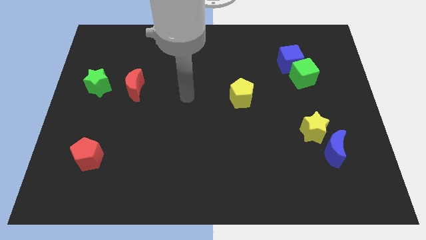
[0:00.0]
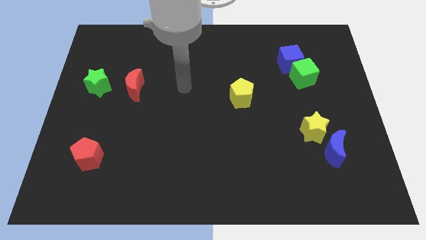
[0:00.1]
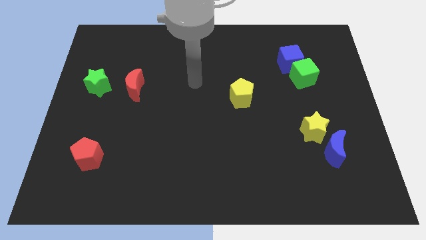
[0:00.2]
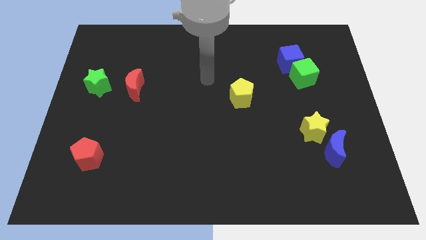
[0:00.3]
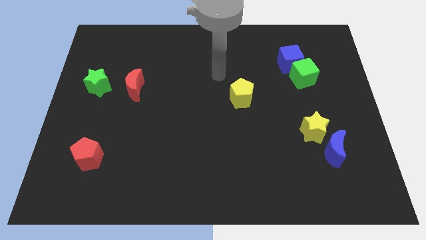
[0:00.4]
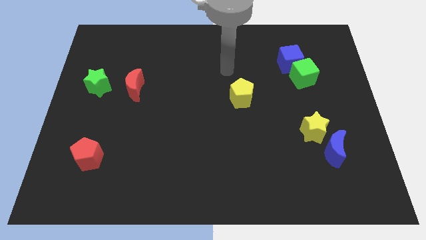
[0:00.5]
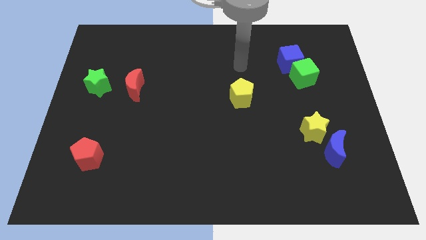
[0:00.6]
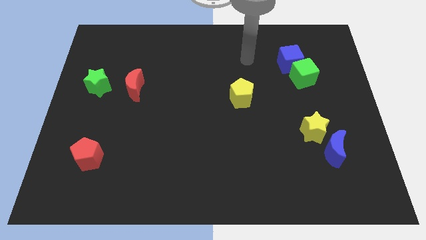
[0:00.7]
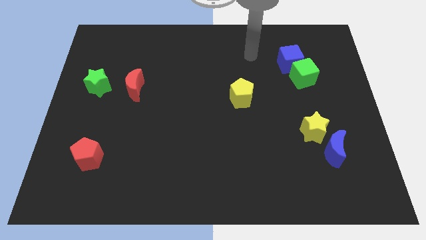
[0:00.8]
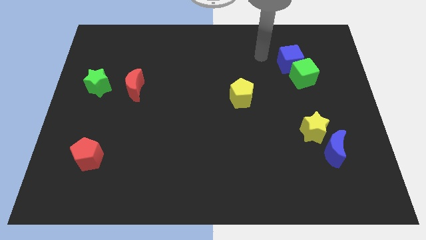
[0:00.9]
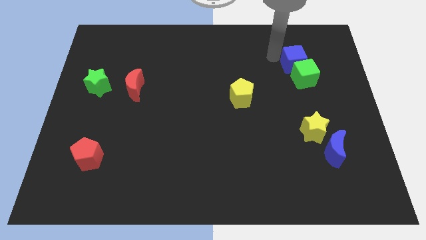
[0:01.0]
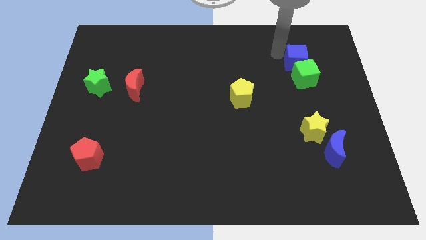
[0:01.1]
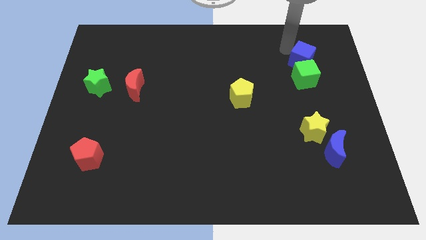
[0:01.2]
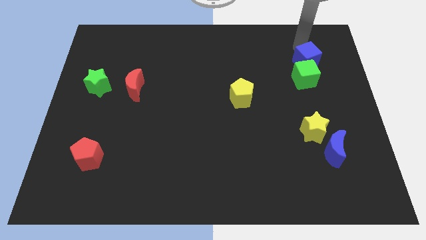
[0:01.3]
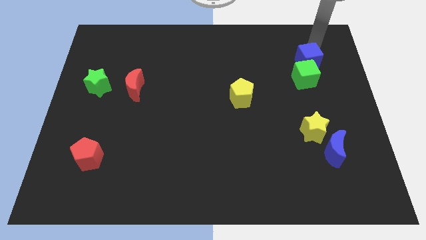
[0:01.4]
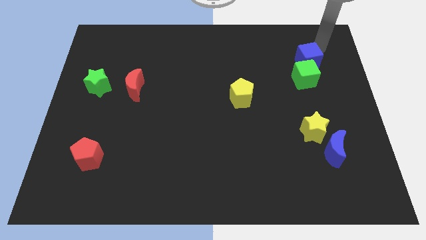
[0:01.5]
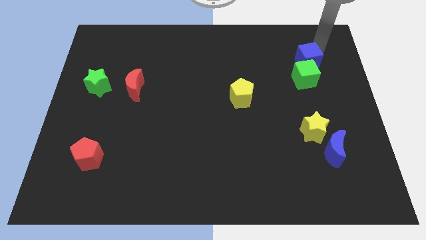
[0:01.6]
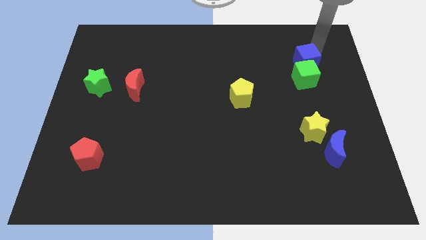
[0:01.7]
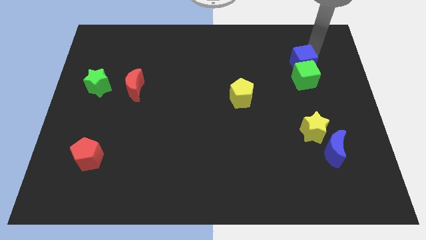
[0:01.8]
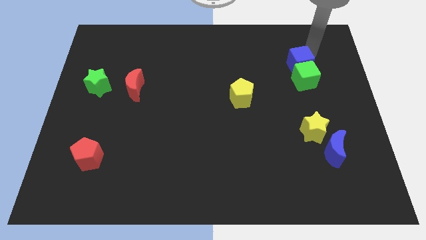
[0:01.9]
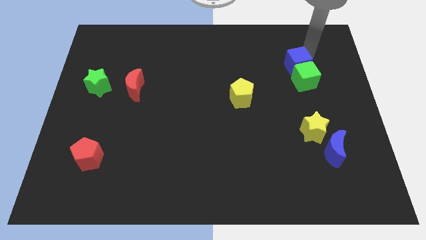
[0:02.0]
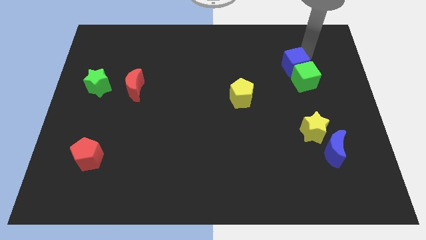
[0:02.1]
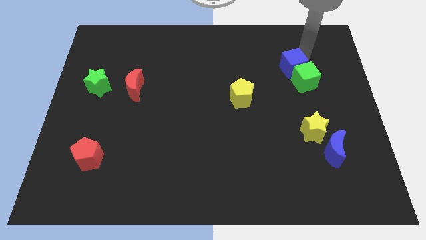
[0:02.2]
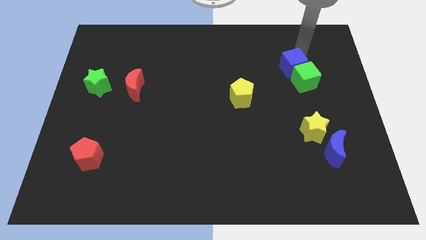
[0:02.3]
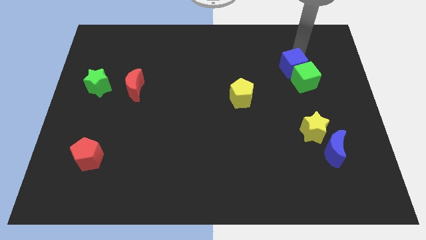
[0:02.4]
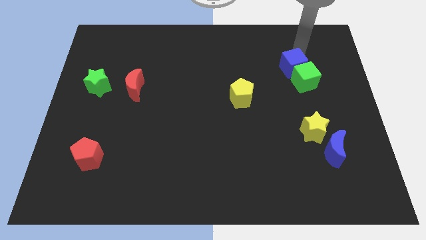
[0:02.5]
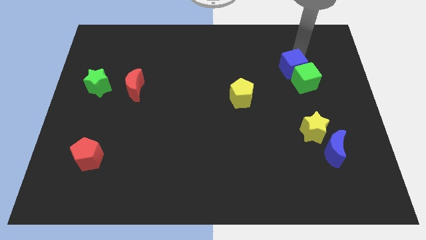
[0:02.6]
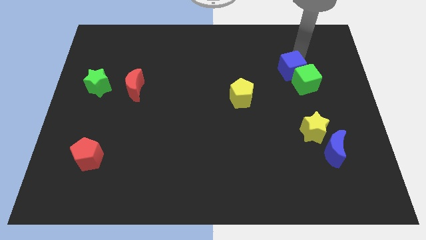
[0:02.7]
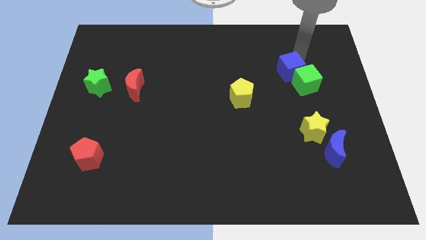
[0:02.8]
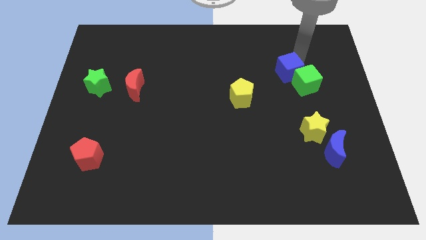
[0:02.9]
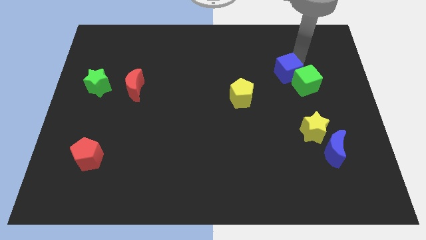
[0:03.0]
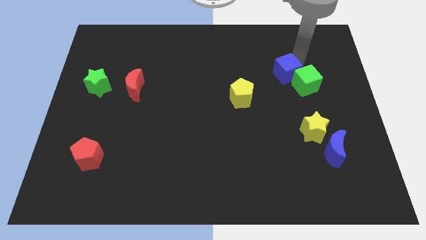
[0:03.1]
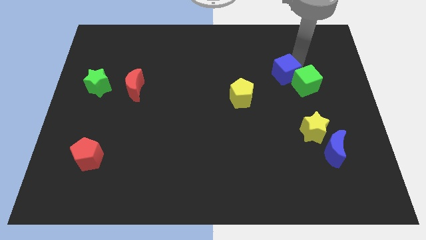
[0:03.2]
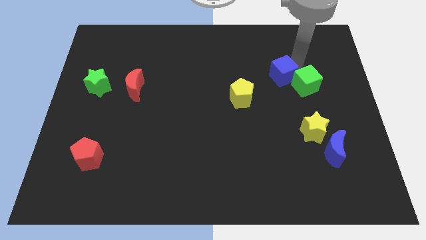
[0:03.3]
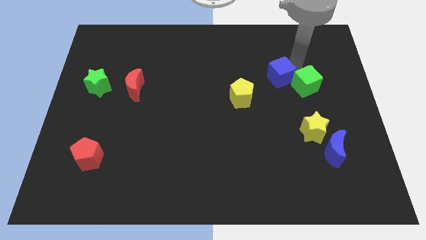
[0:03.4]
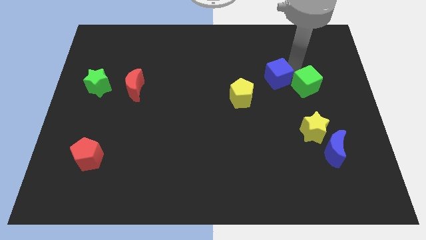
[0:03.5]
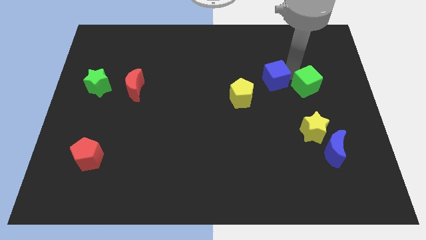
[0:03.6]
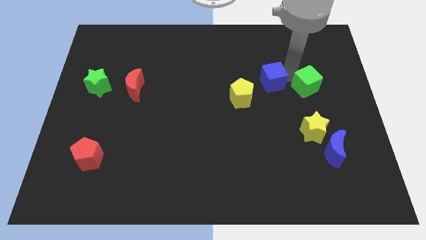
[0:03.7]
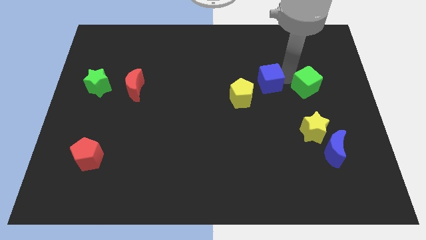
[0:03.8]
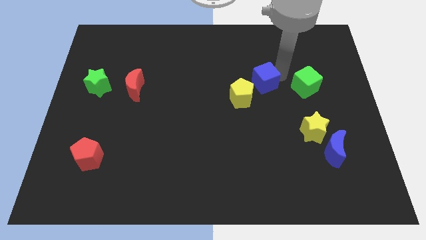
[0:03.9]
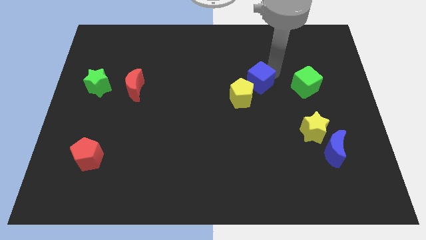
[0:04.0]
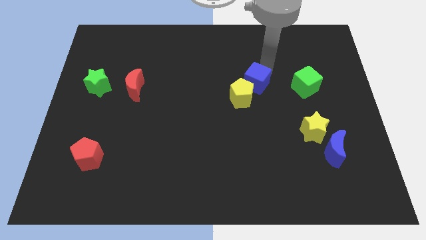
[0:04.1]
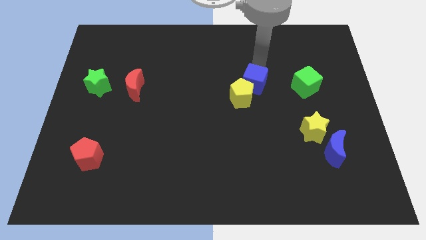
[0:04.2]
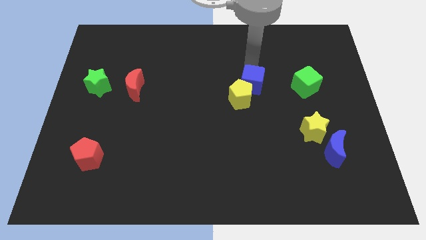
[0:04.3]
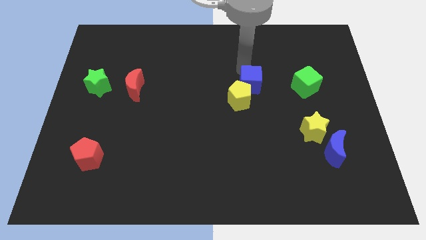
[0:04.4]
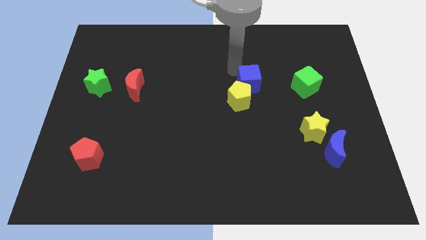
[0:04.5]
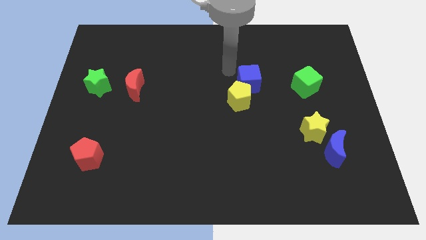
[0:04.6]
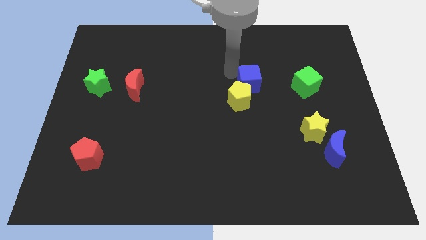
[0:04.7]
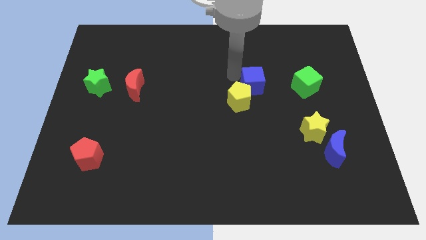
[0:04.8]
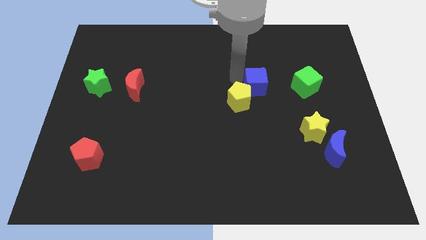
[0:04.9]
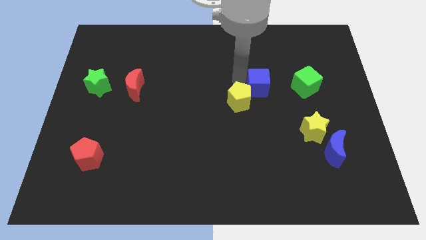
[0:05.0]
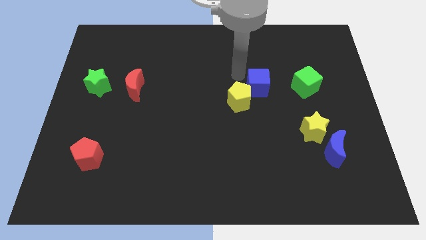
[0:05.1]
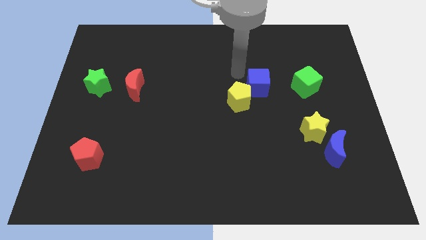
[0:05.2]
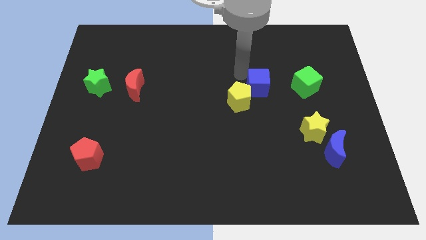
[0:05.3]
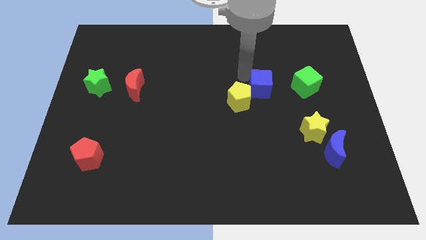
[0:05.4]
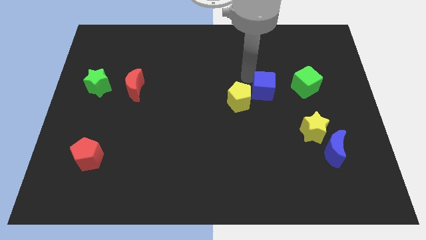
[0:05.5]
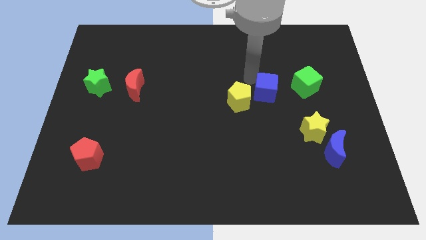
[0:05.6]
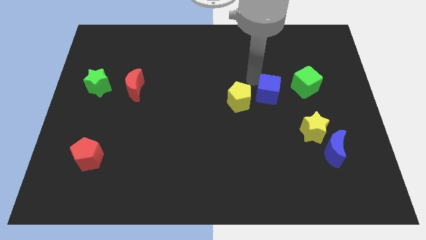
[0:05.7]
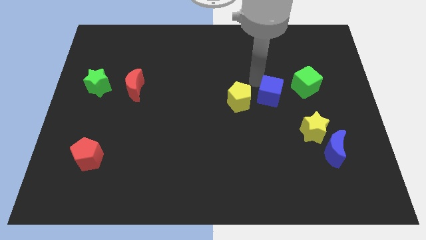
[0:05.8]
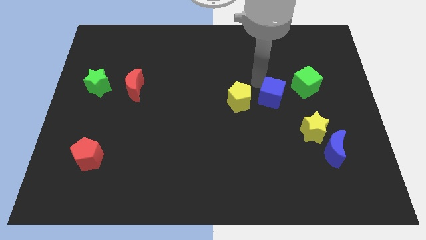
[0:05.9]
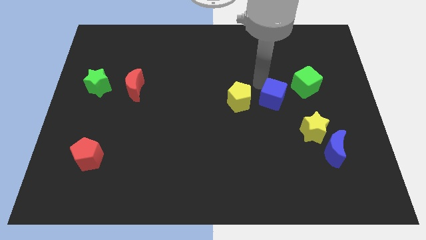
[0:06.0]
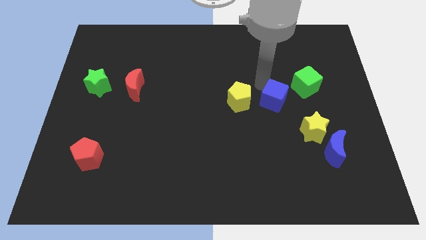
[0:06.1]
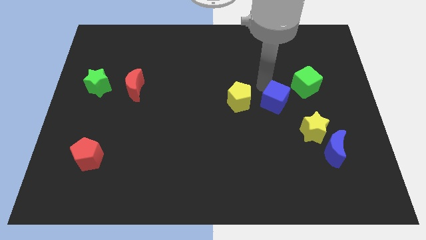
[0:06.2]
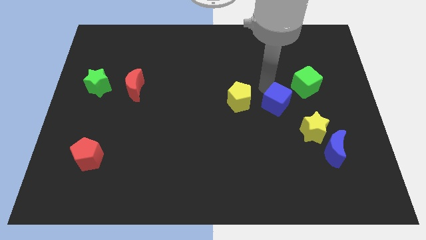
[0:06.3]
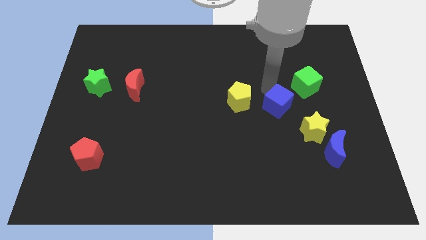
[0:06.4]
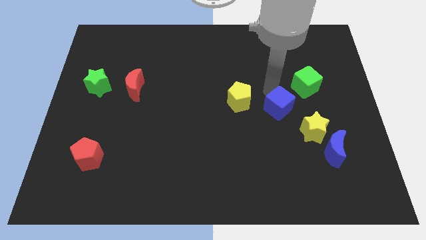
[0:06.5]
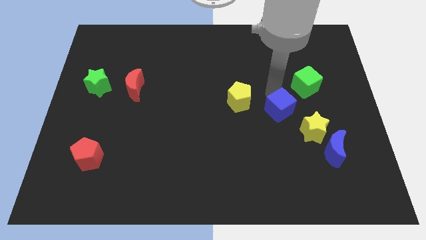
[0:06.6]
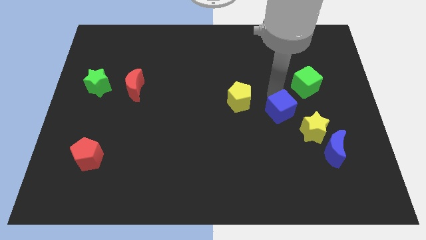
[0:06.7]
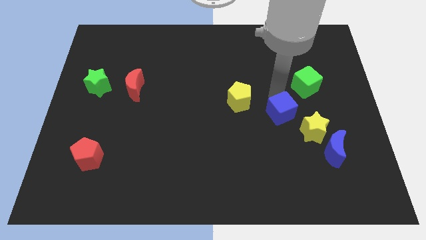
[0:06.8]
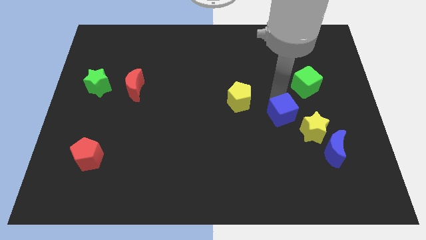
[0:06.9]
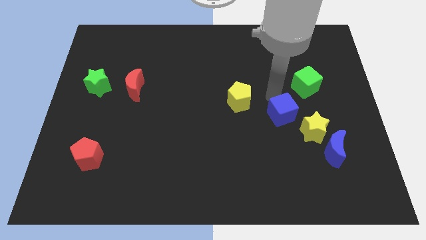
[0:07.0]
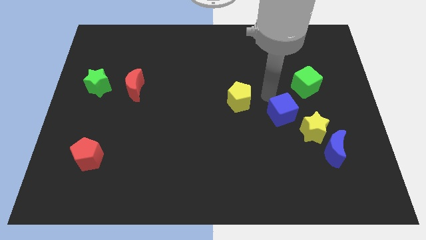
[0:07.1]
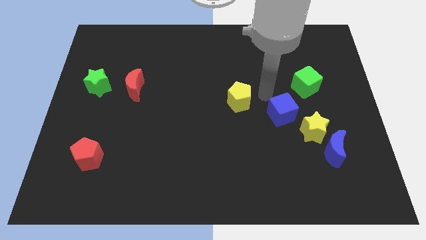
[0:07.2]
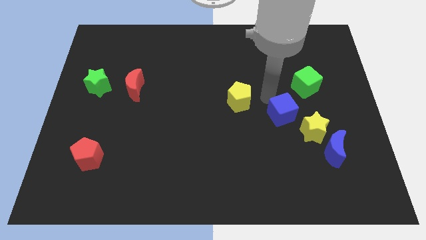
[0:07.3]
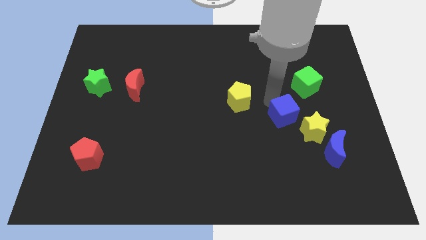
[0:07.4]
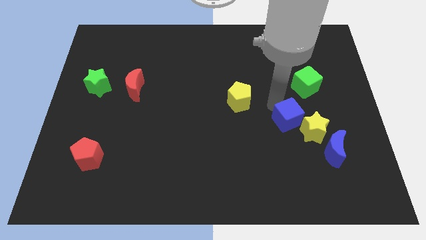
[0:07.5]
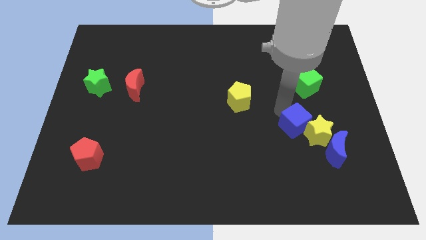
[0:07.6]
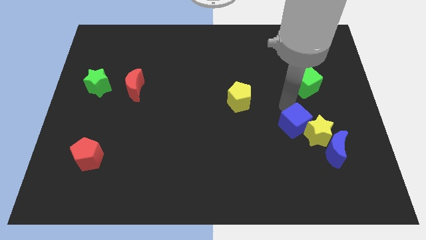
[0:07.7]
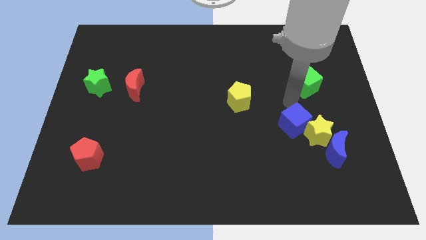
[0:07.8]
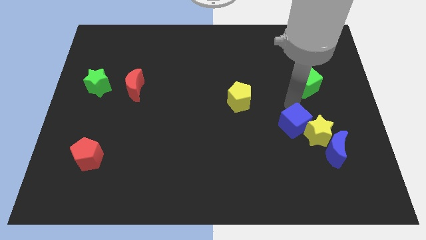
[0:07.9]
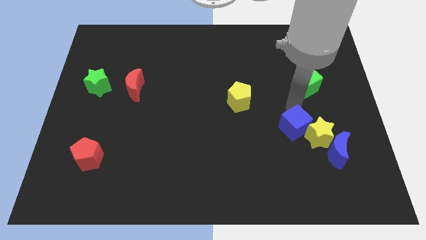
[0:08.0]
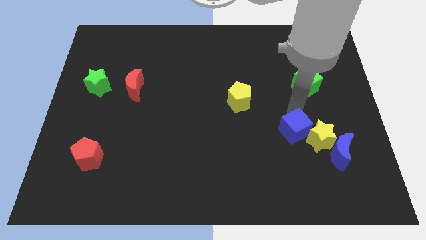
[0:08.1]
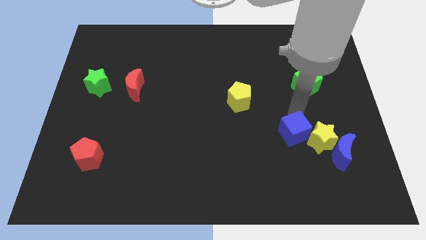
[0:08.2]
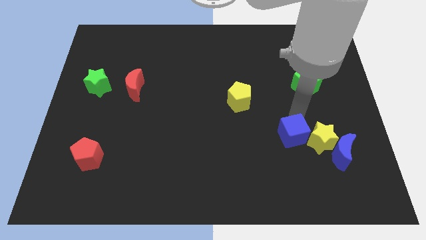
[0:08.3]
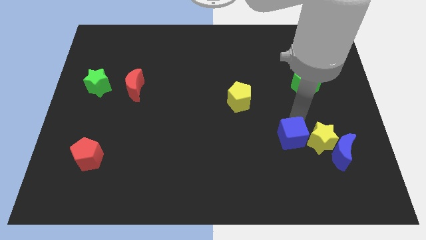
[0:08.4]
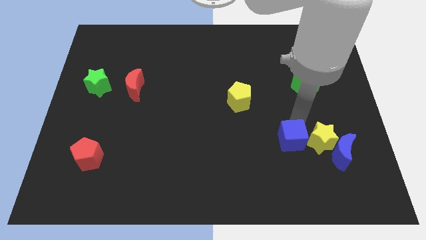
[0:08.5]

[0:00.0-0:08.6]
put the blue cube diagonally down and to the left of the yellow star
